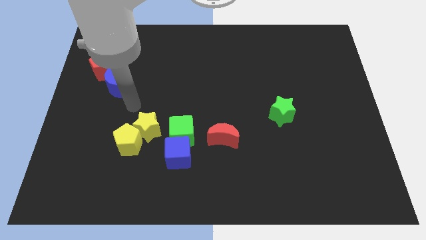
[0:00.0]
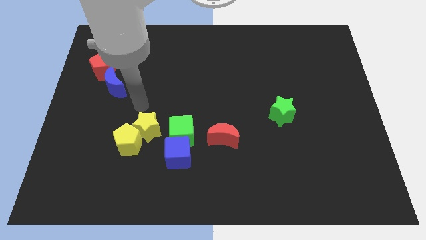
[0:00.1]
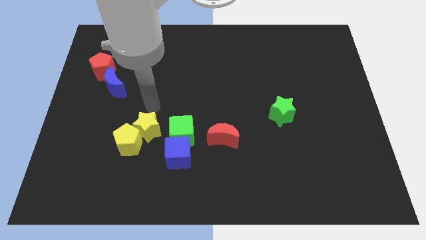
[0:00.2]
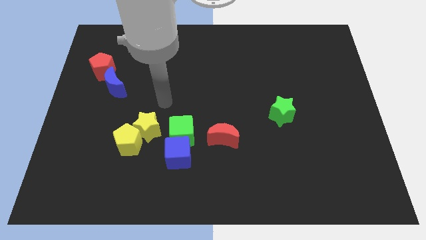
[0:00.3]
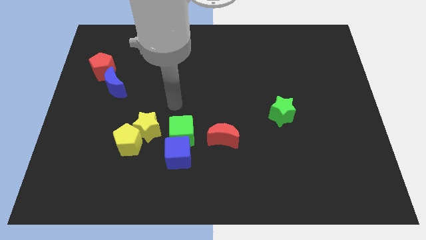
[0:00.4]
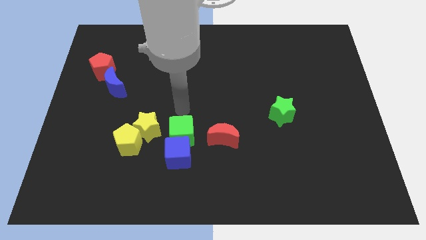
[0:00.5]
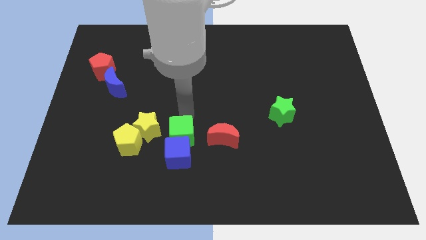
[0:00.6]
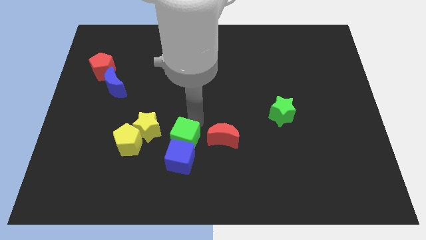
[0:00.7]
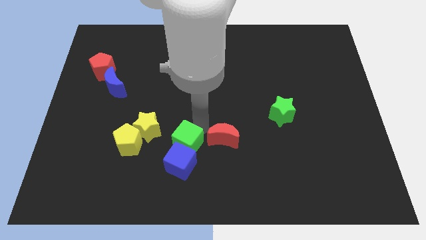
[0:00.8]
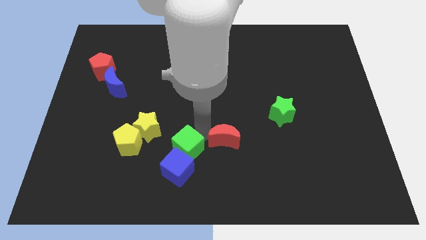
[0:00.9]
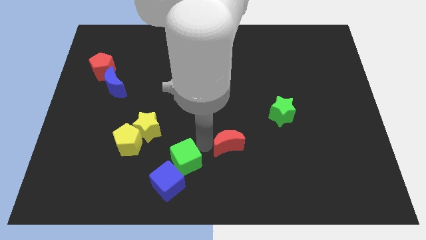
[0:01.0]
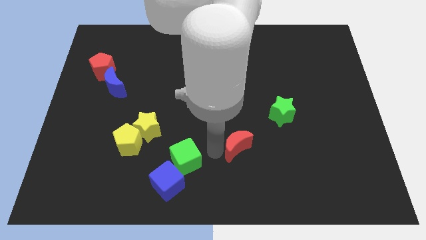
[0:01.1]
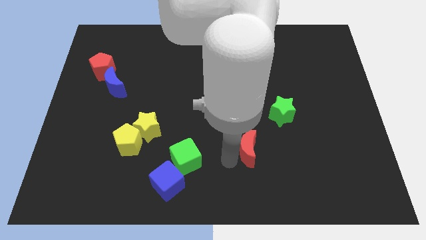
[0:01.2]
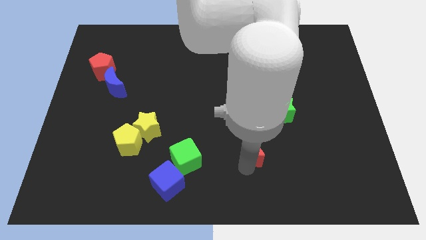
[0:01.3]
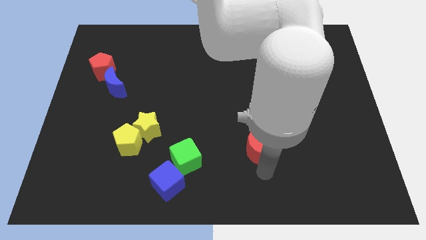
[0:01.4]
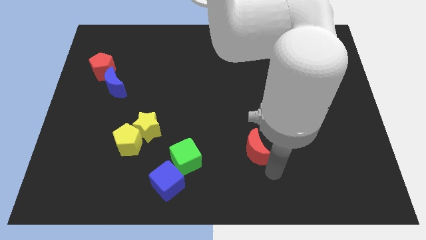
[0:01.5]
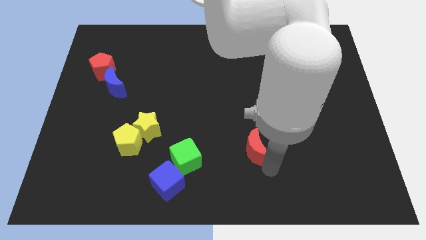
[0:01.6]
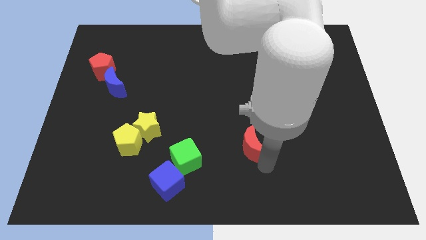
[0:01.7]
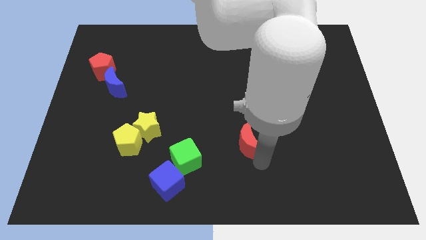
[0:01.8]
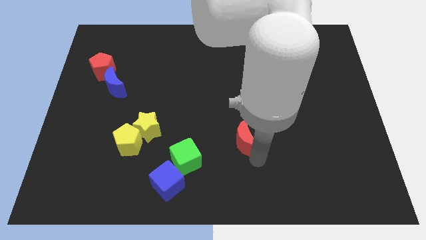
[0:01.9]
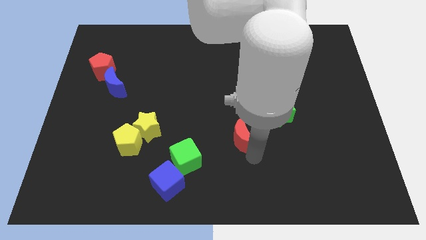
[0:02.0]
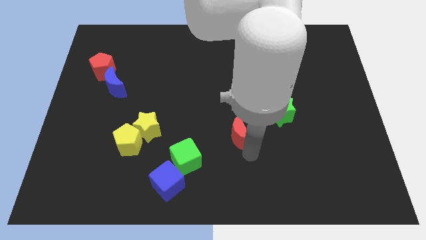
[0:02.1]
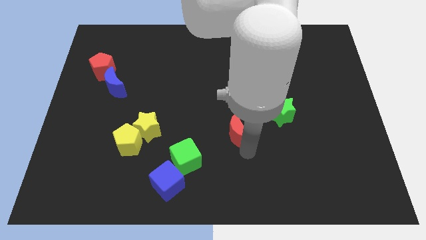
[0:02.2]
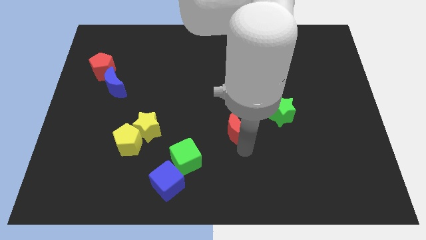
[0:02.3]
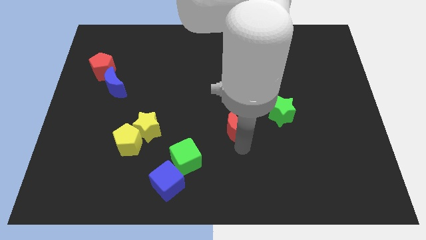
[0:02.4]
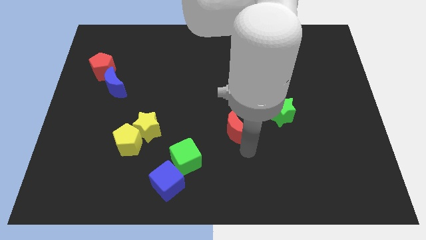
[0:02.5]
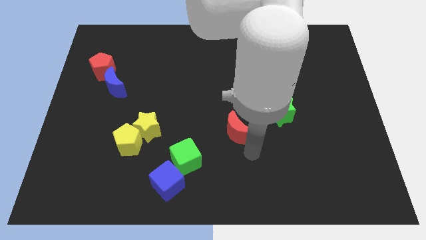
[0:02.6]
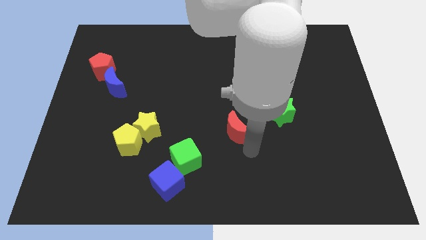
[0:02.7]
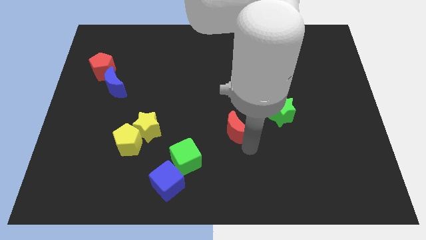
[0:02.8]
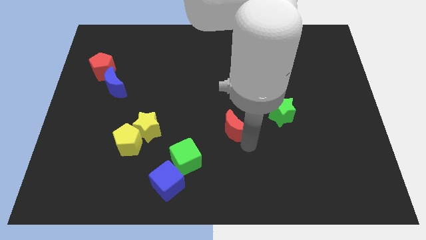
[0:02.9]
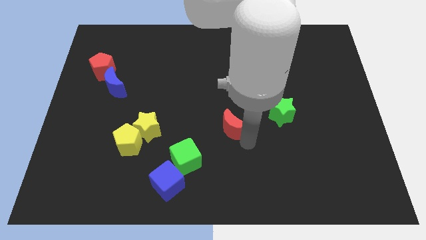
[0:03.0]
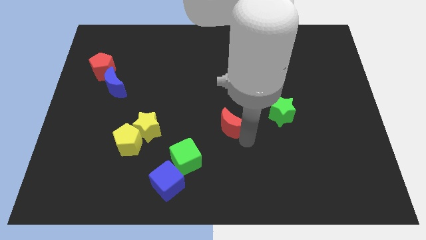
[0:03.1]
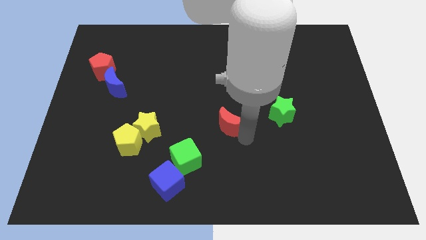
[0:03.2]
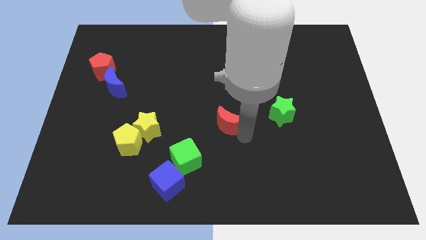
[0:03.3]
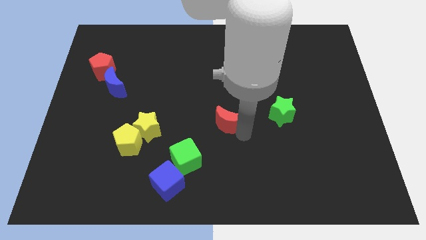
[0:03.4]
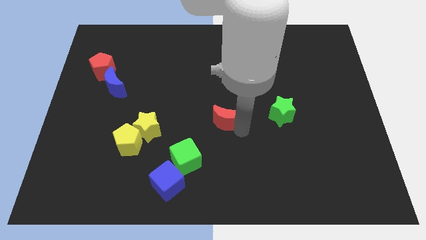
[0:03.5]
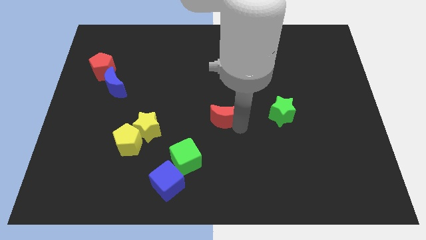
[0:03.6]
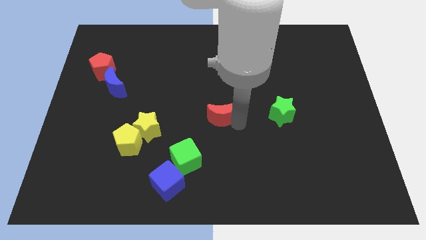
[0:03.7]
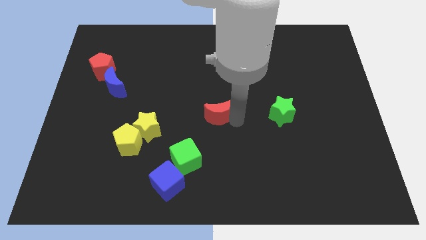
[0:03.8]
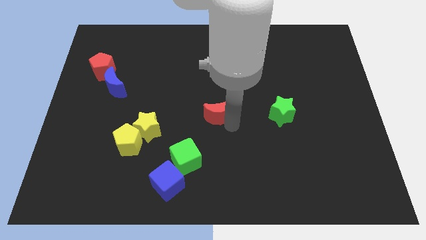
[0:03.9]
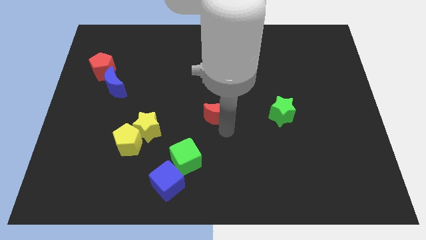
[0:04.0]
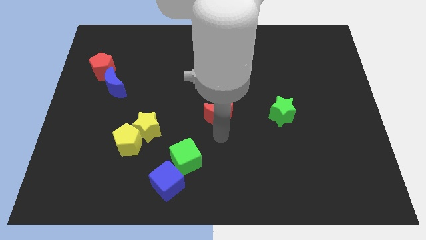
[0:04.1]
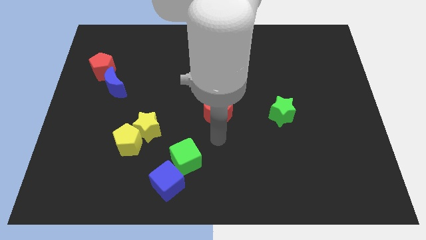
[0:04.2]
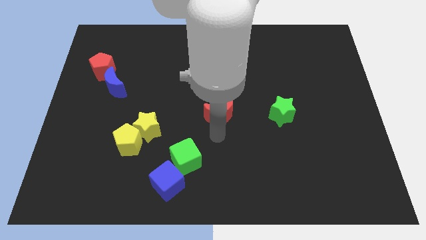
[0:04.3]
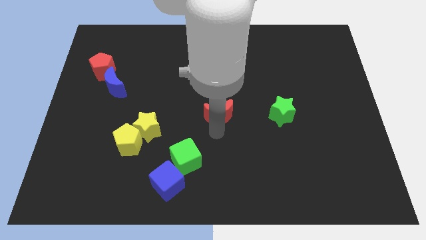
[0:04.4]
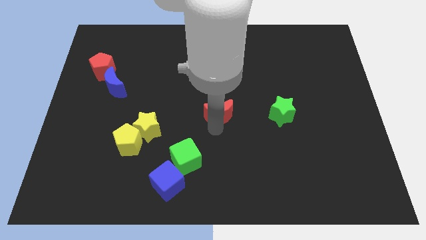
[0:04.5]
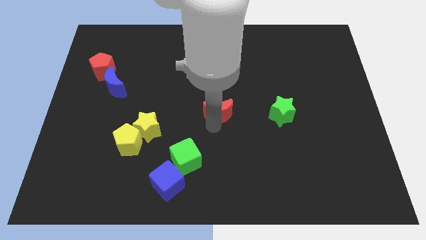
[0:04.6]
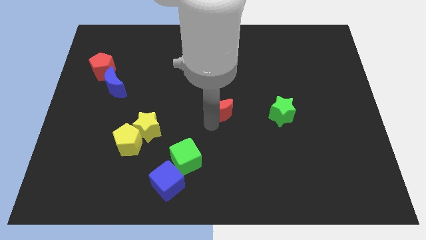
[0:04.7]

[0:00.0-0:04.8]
slide the red moon a little bit upwards

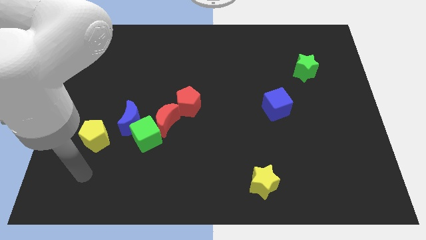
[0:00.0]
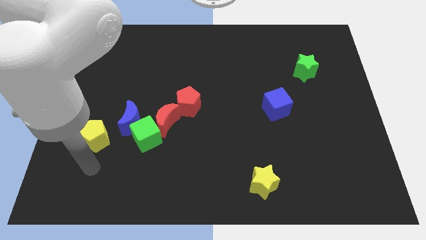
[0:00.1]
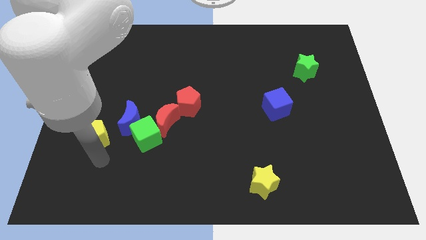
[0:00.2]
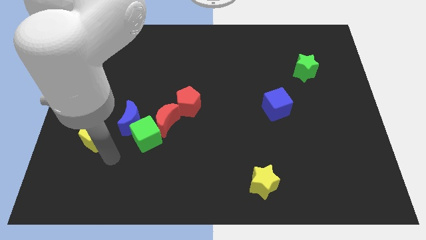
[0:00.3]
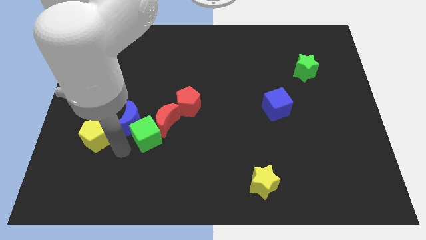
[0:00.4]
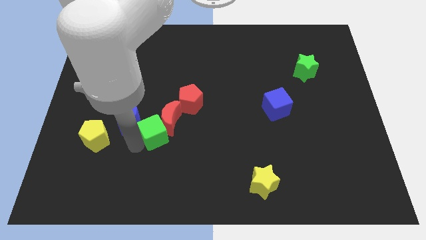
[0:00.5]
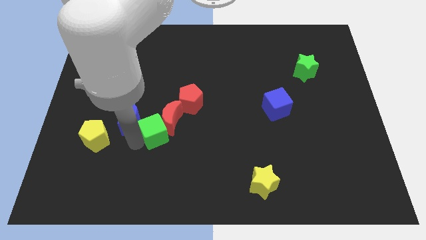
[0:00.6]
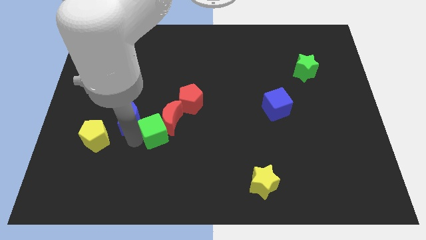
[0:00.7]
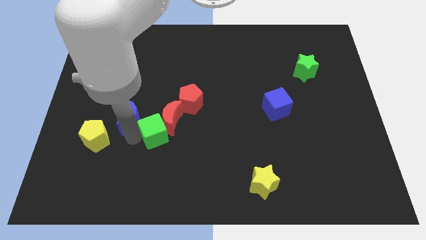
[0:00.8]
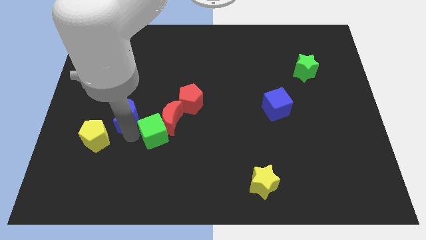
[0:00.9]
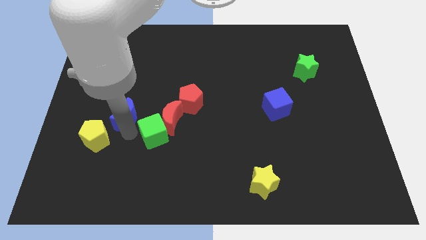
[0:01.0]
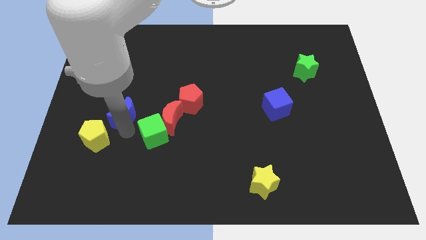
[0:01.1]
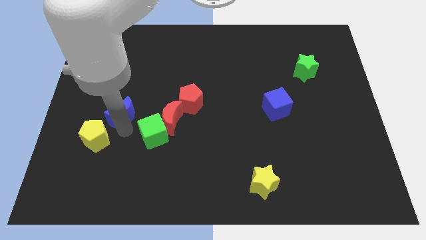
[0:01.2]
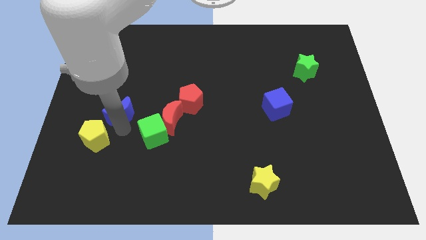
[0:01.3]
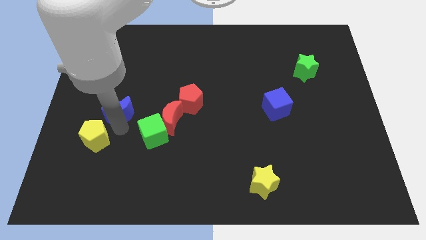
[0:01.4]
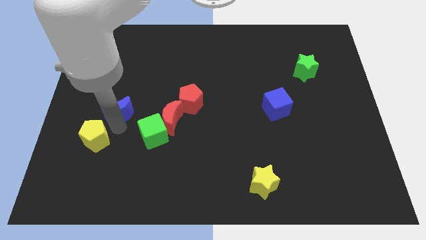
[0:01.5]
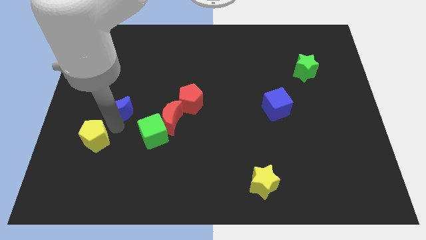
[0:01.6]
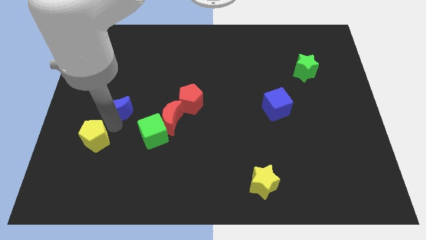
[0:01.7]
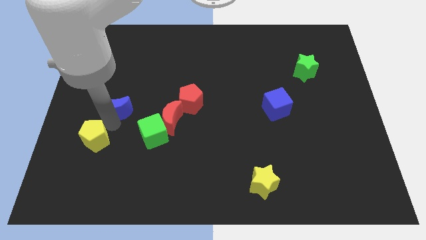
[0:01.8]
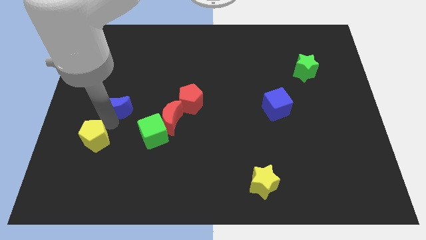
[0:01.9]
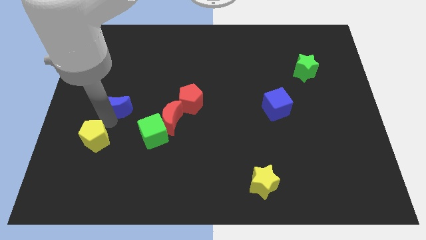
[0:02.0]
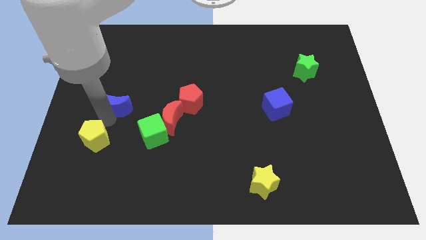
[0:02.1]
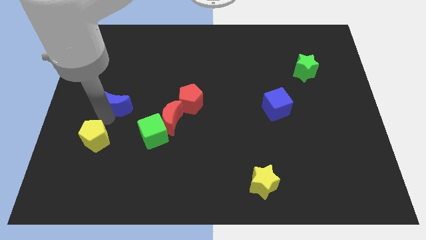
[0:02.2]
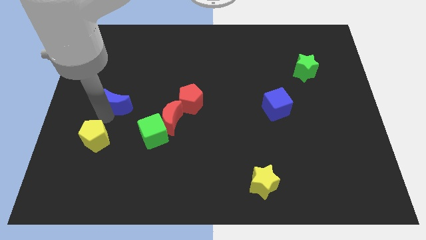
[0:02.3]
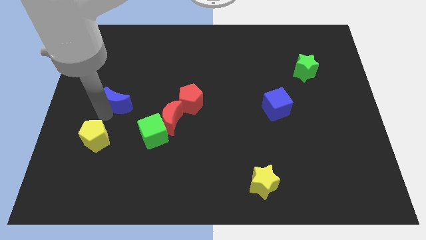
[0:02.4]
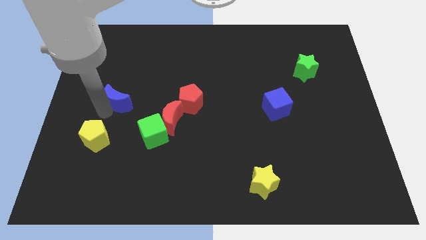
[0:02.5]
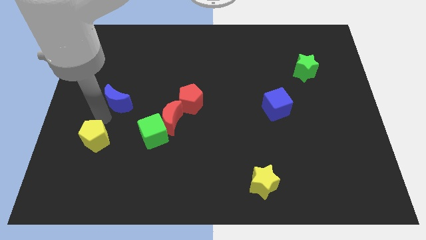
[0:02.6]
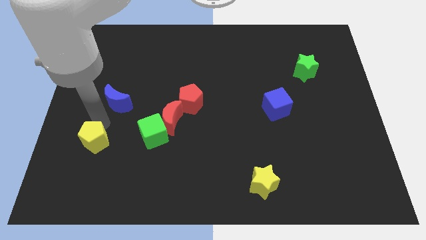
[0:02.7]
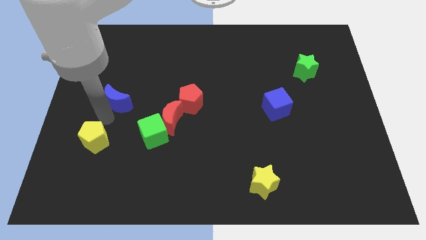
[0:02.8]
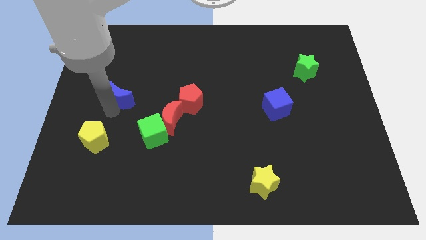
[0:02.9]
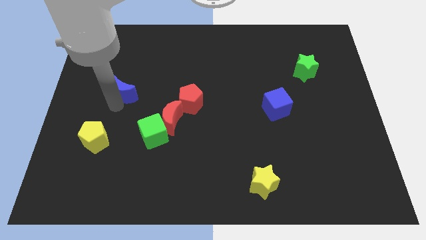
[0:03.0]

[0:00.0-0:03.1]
slightly slide the blue moon up

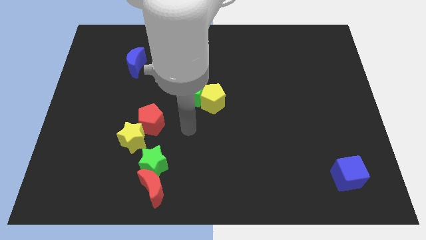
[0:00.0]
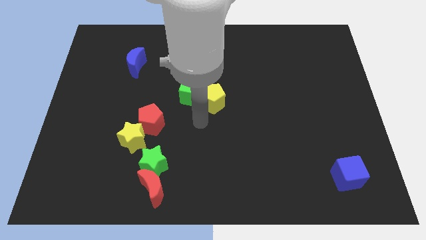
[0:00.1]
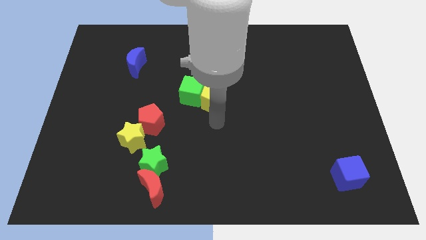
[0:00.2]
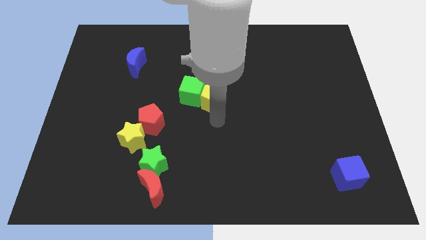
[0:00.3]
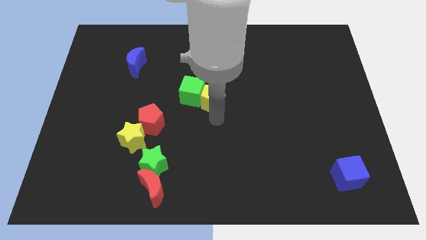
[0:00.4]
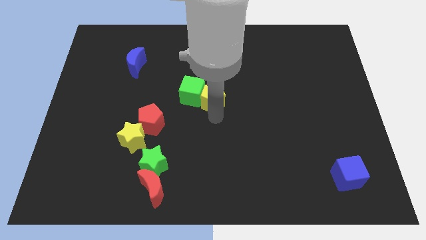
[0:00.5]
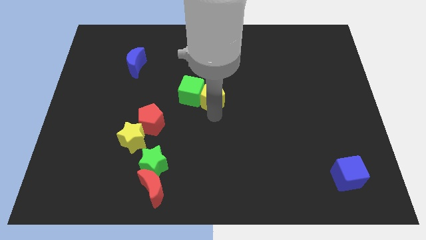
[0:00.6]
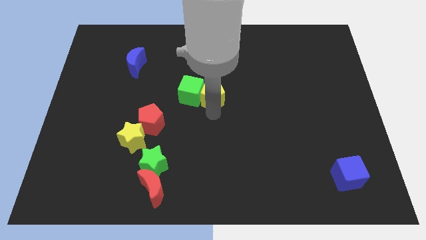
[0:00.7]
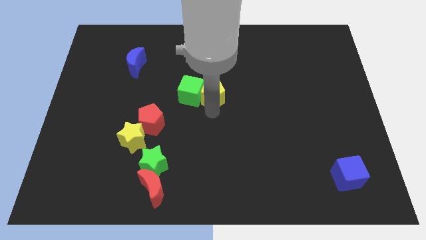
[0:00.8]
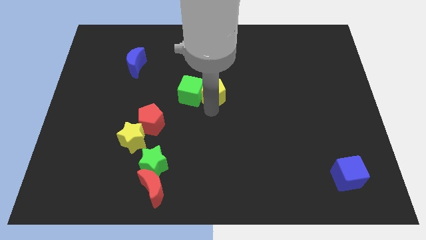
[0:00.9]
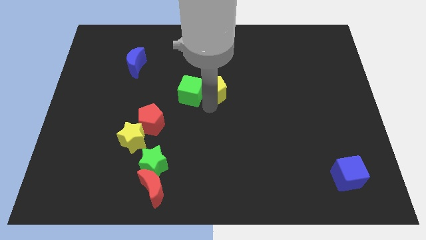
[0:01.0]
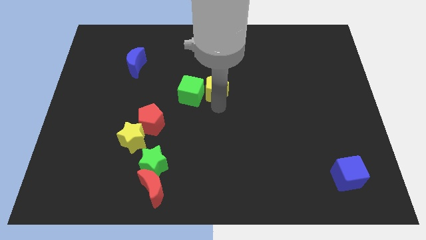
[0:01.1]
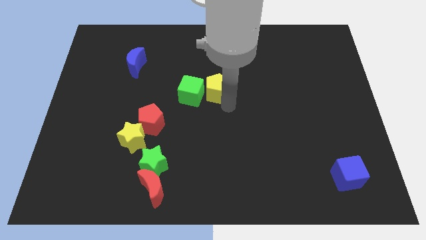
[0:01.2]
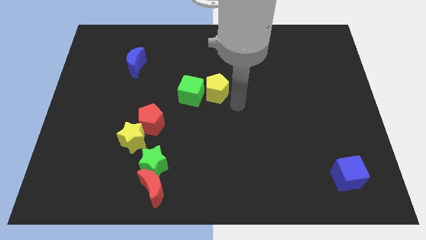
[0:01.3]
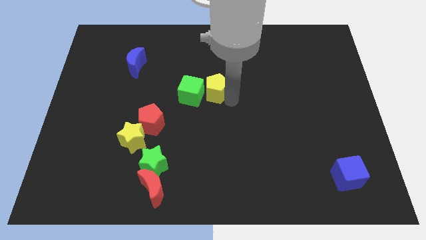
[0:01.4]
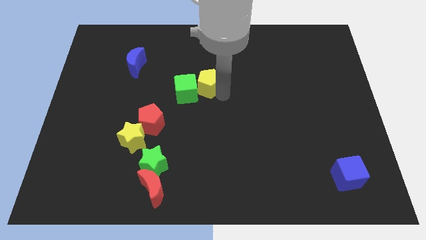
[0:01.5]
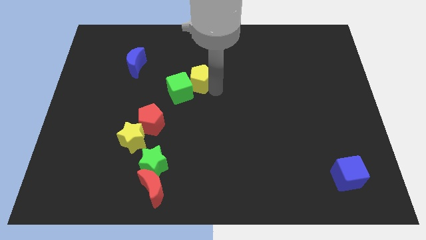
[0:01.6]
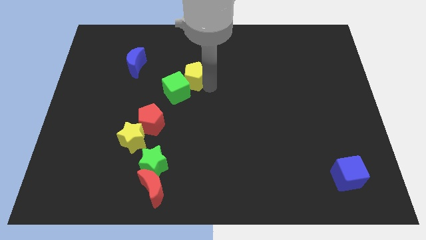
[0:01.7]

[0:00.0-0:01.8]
slightly move the yellow pentagon diagonally upwards and left
